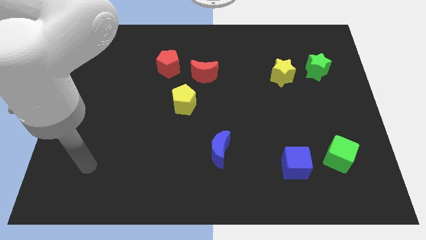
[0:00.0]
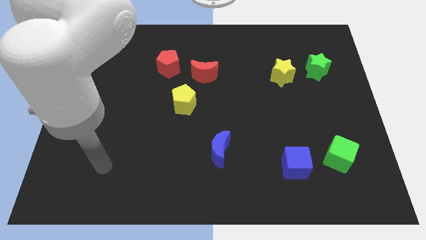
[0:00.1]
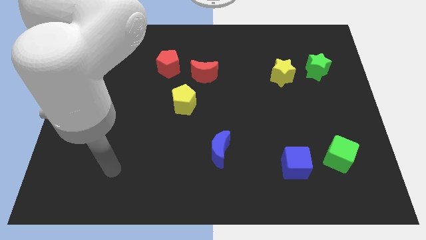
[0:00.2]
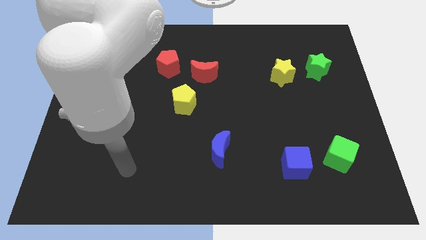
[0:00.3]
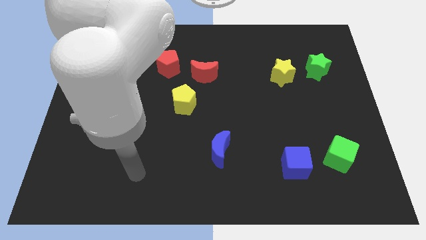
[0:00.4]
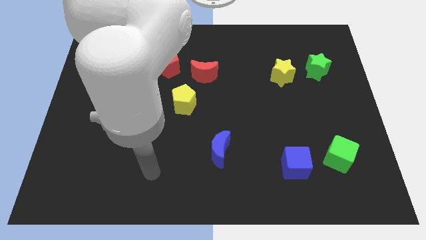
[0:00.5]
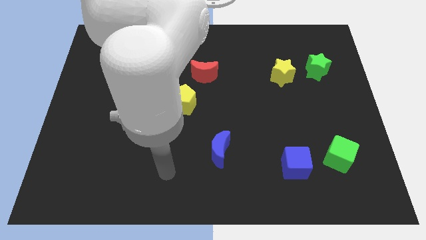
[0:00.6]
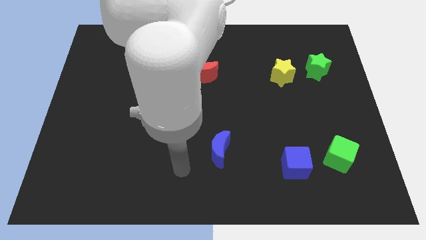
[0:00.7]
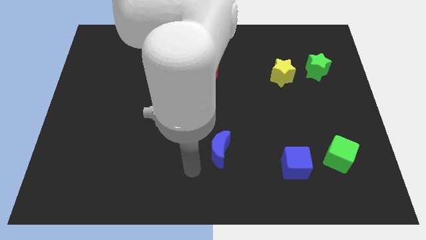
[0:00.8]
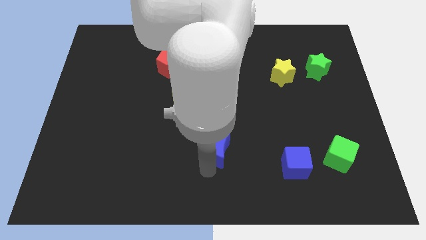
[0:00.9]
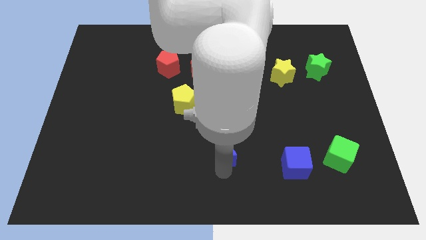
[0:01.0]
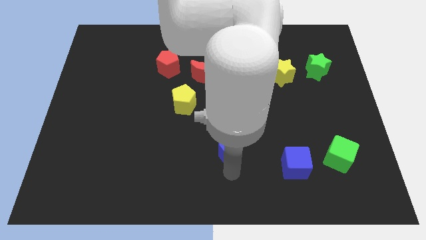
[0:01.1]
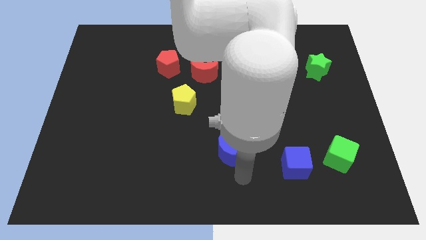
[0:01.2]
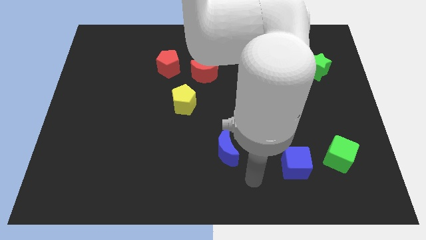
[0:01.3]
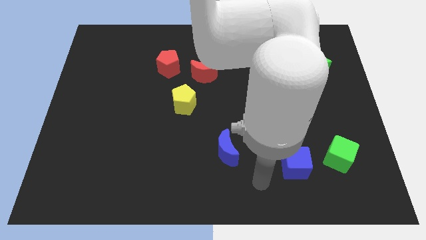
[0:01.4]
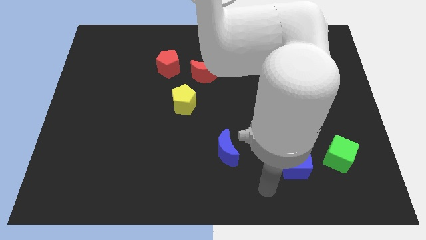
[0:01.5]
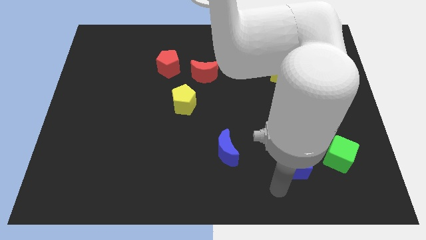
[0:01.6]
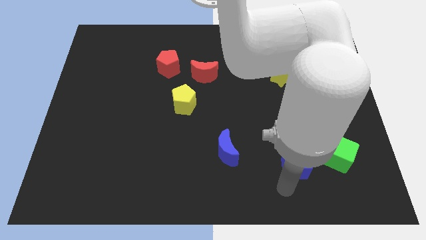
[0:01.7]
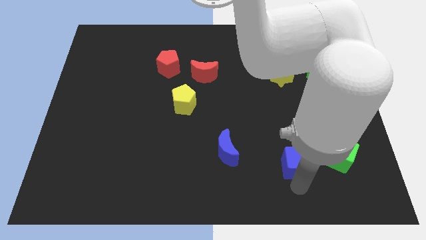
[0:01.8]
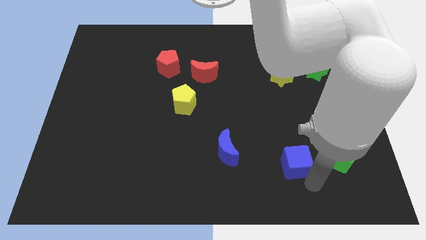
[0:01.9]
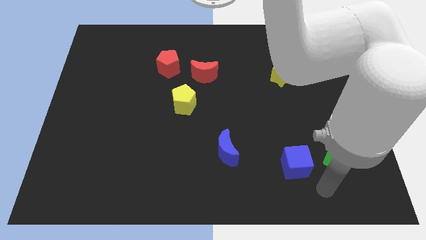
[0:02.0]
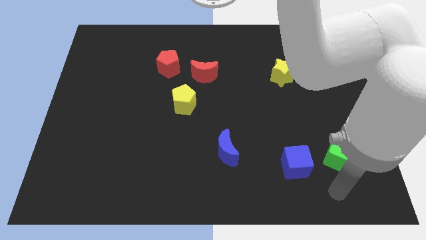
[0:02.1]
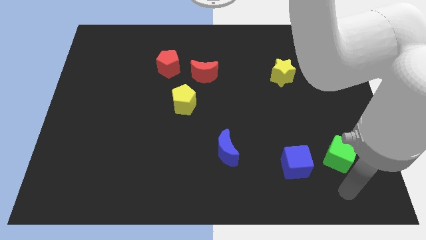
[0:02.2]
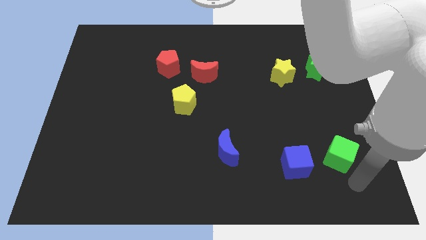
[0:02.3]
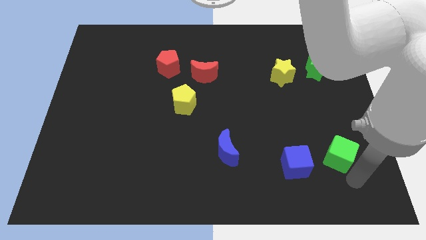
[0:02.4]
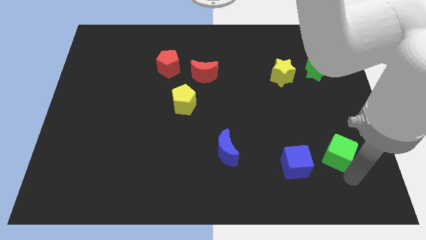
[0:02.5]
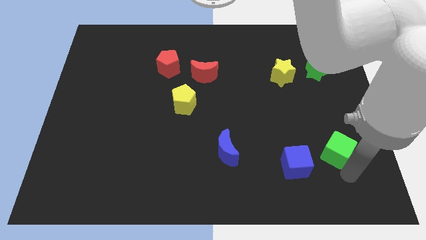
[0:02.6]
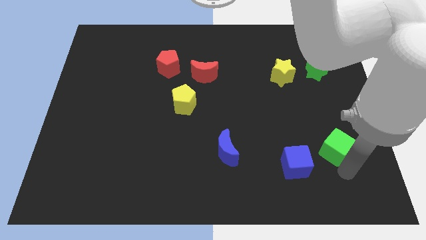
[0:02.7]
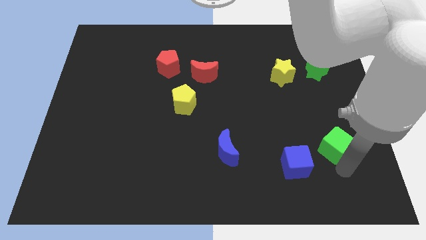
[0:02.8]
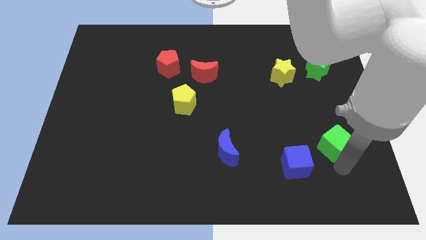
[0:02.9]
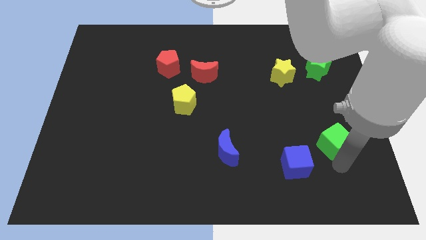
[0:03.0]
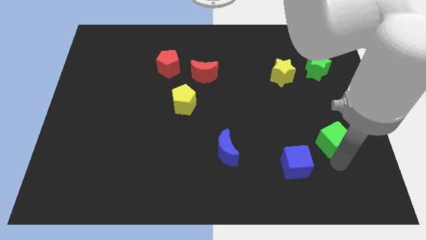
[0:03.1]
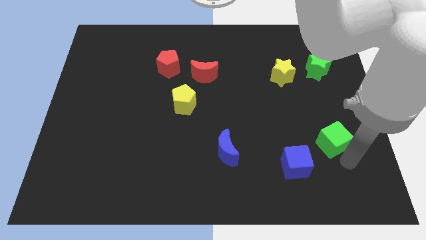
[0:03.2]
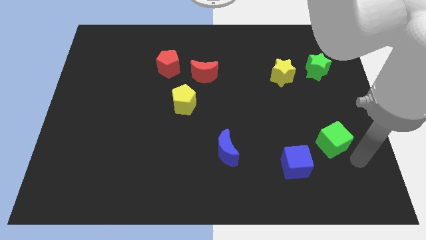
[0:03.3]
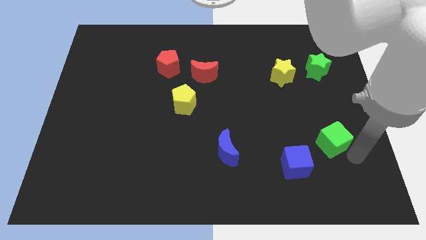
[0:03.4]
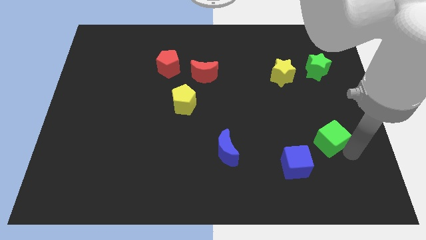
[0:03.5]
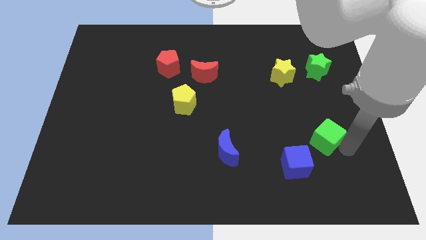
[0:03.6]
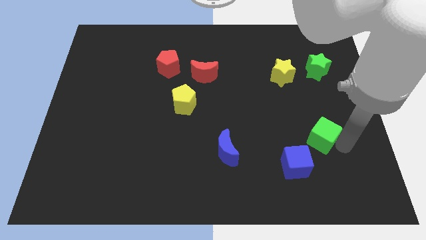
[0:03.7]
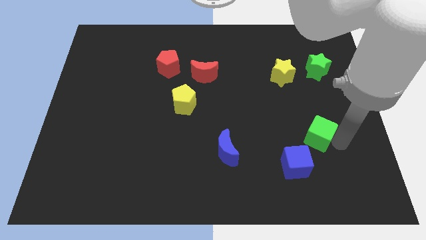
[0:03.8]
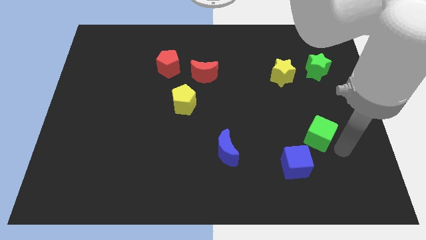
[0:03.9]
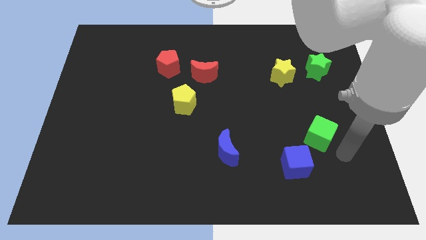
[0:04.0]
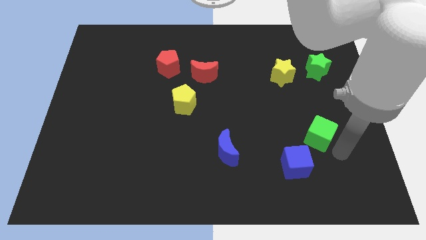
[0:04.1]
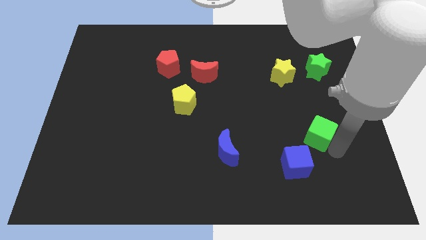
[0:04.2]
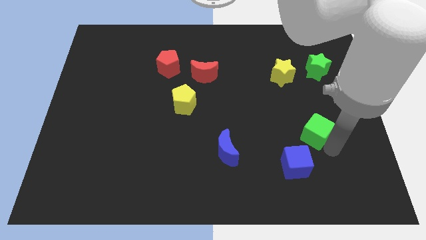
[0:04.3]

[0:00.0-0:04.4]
slightly push the green cube upwards and to the left

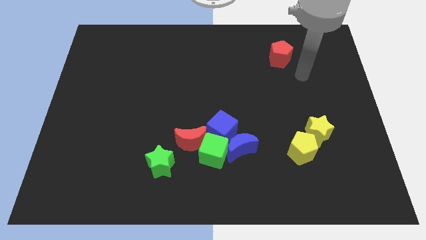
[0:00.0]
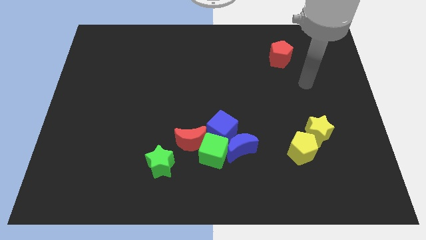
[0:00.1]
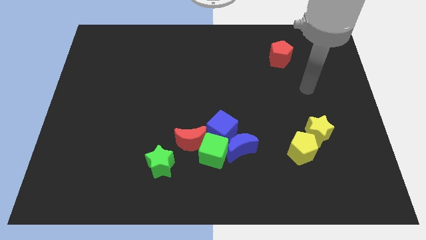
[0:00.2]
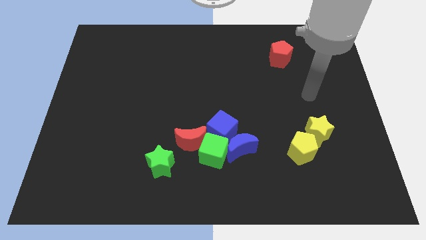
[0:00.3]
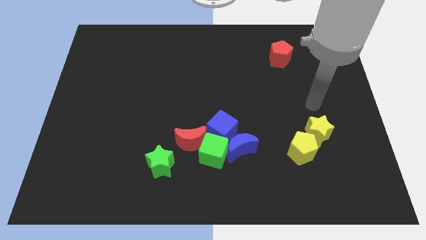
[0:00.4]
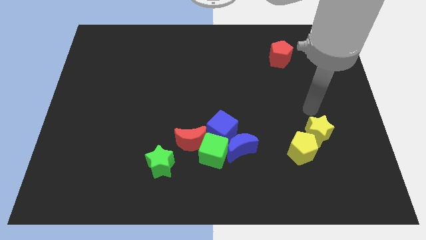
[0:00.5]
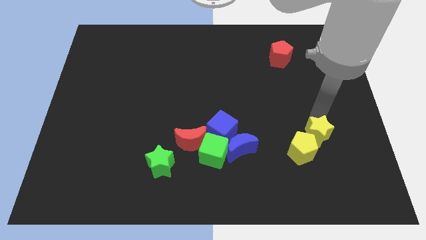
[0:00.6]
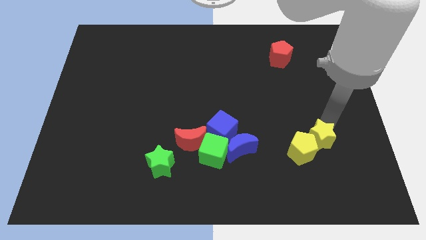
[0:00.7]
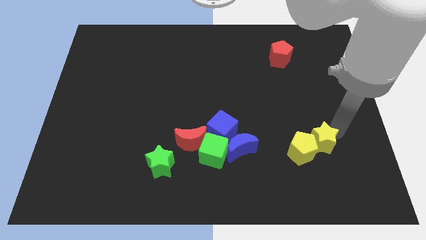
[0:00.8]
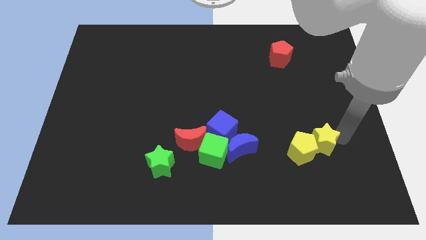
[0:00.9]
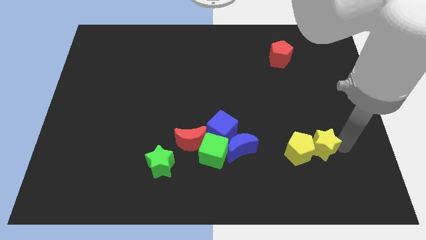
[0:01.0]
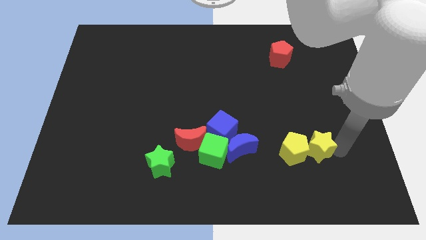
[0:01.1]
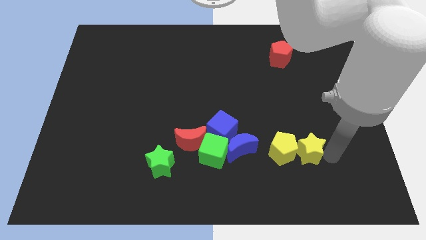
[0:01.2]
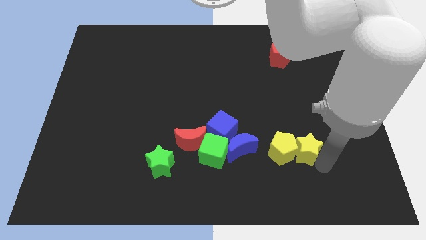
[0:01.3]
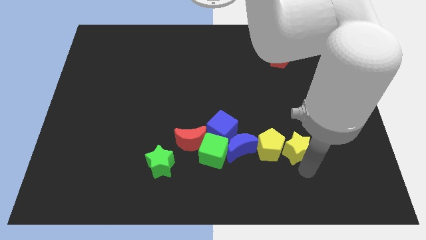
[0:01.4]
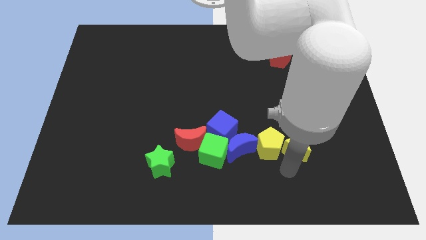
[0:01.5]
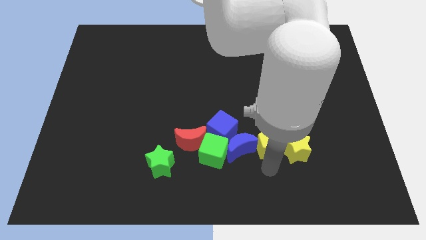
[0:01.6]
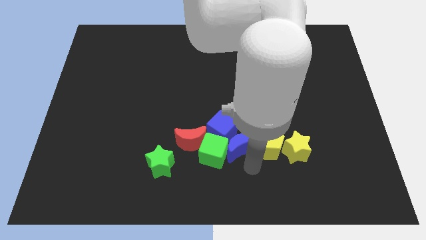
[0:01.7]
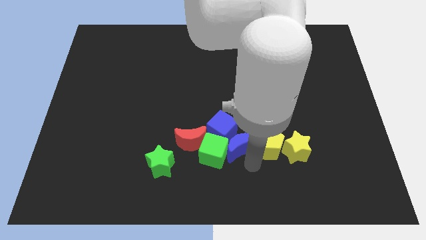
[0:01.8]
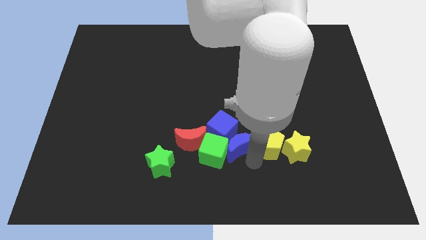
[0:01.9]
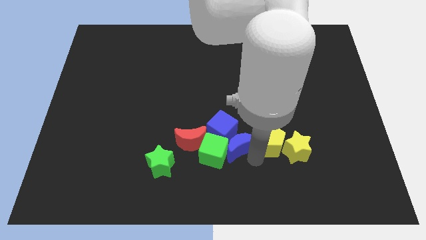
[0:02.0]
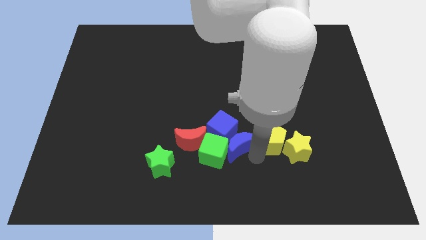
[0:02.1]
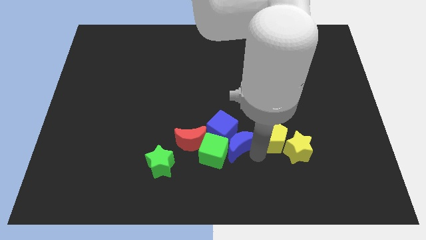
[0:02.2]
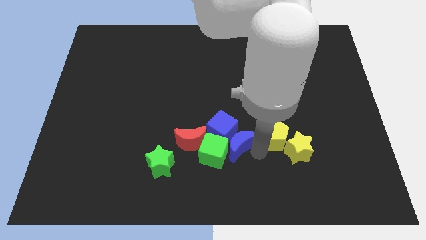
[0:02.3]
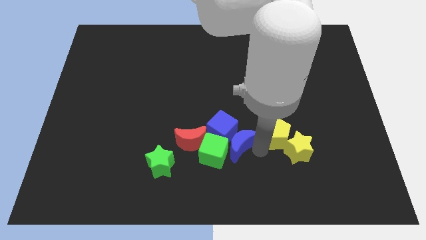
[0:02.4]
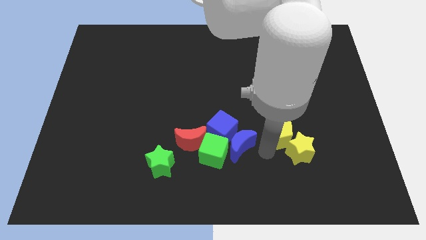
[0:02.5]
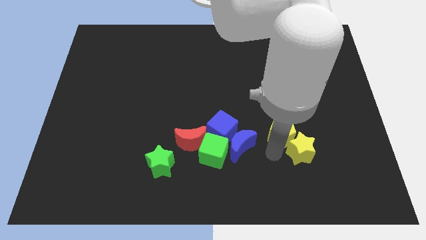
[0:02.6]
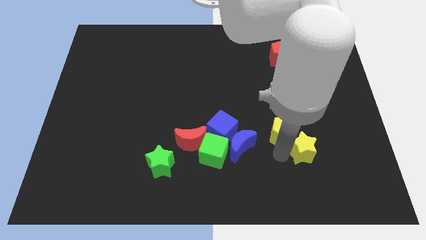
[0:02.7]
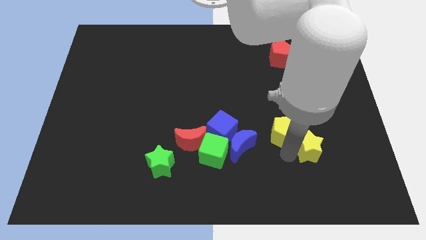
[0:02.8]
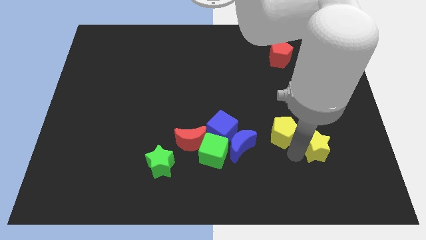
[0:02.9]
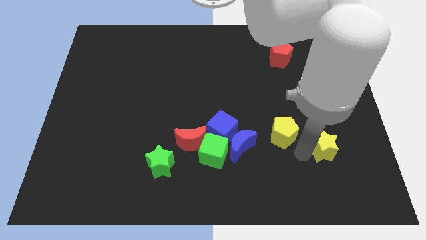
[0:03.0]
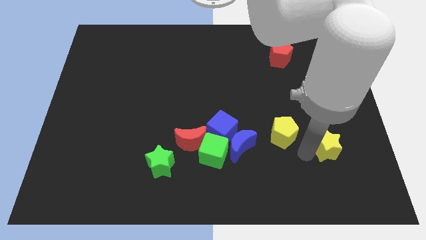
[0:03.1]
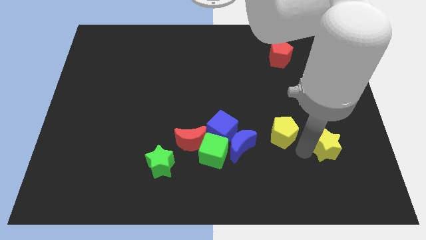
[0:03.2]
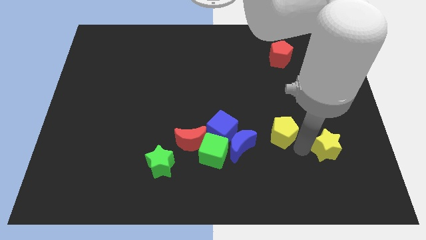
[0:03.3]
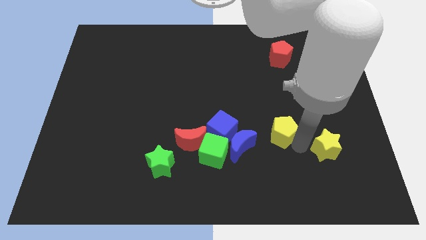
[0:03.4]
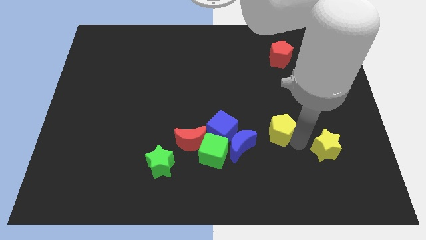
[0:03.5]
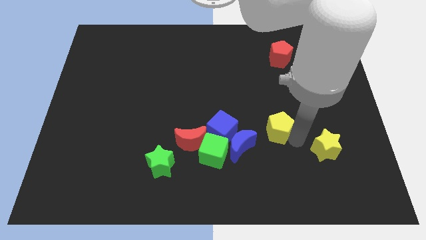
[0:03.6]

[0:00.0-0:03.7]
move the yellow pentagon upwards and then to the left somewhat
